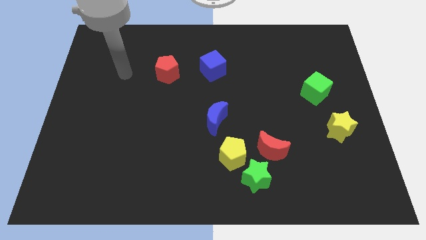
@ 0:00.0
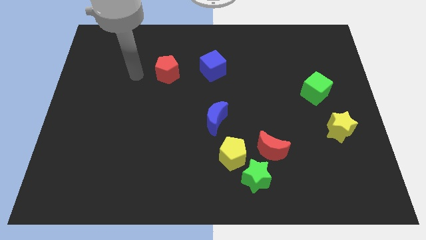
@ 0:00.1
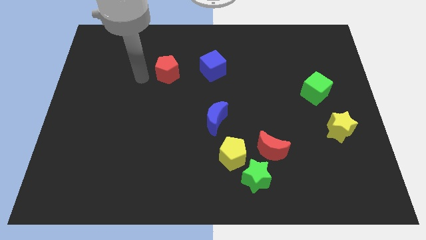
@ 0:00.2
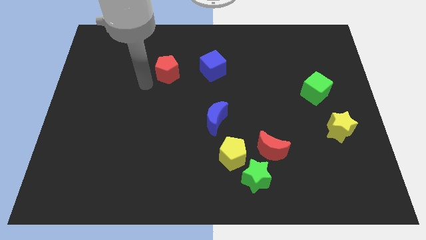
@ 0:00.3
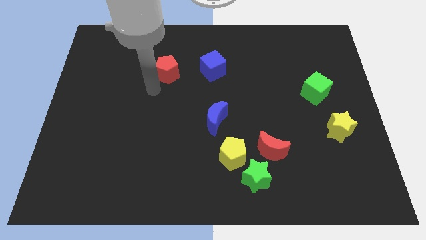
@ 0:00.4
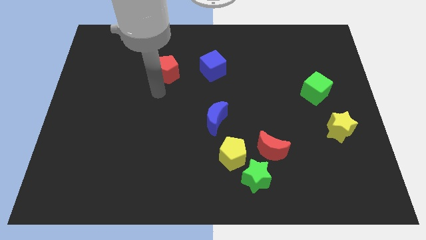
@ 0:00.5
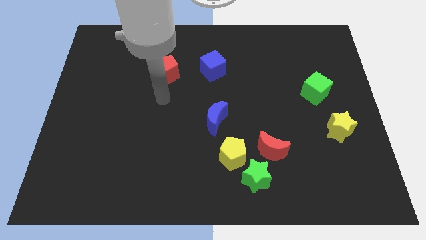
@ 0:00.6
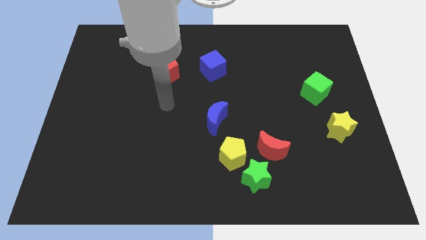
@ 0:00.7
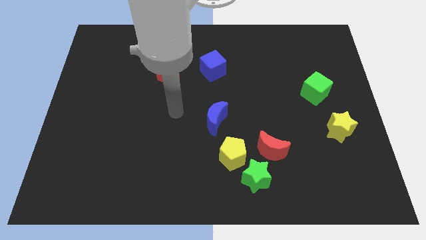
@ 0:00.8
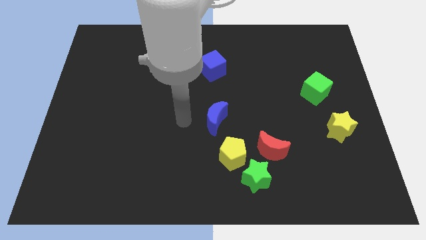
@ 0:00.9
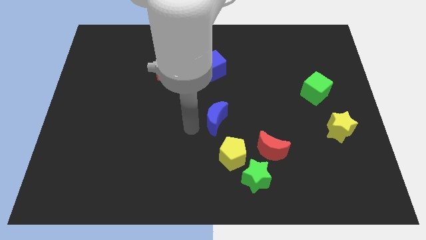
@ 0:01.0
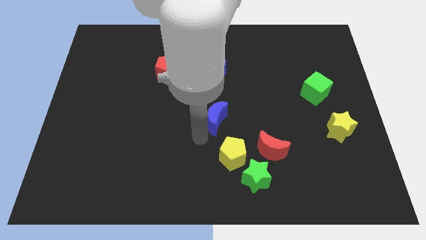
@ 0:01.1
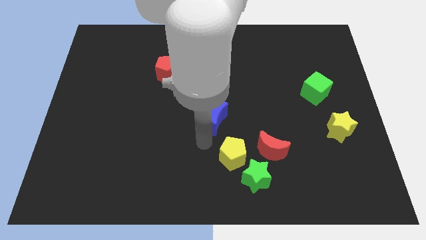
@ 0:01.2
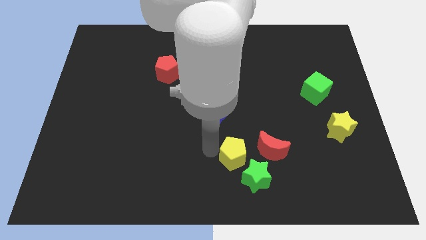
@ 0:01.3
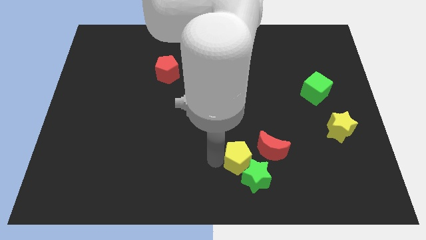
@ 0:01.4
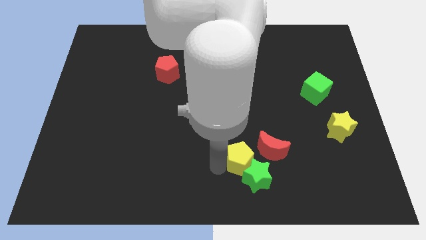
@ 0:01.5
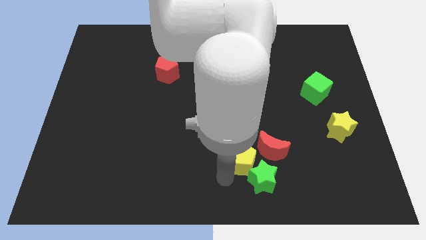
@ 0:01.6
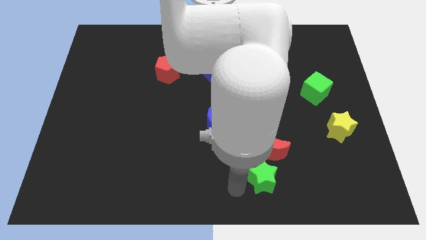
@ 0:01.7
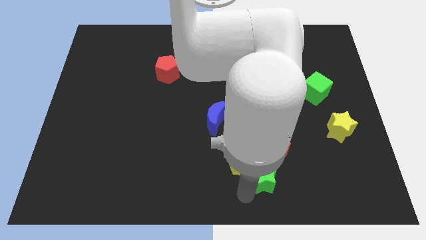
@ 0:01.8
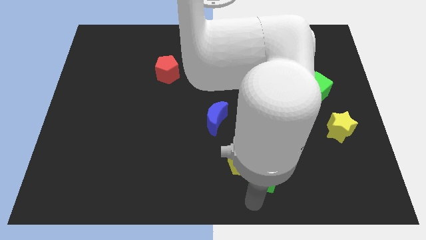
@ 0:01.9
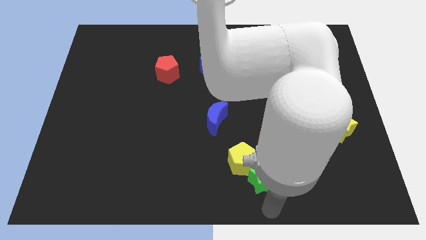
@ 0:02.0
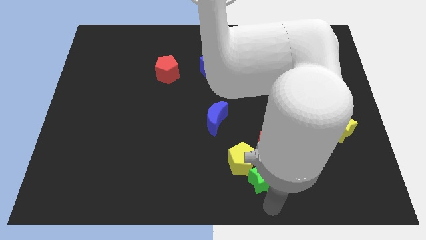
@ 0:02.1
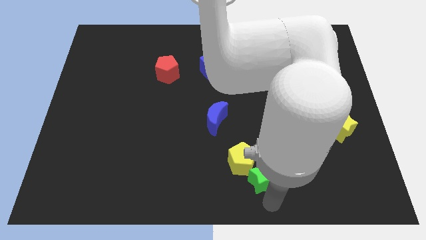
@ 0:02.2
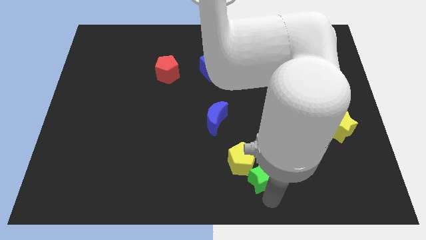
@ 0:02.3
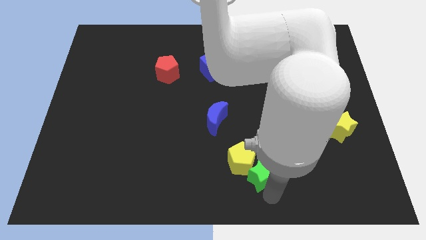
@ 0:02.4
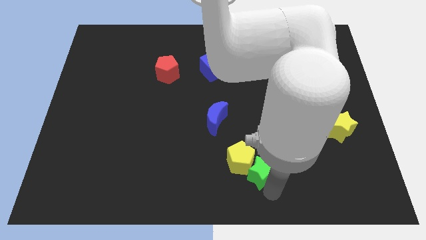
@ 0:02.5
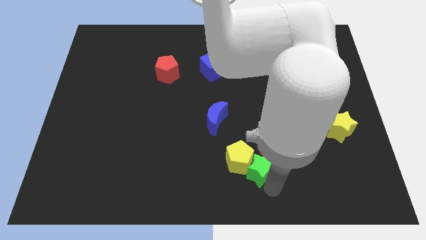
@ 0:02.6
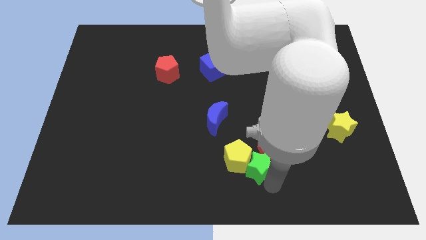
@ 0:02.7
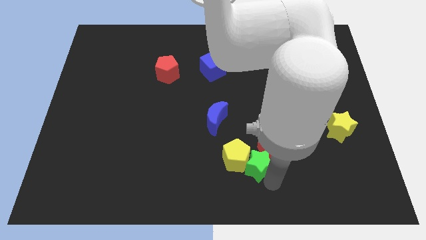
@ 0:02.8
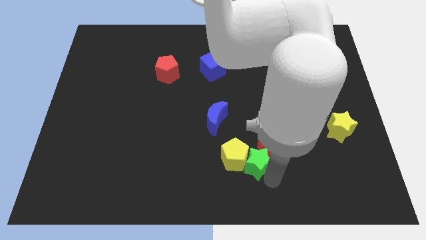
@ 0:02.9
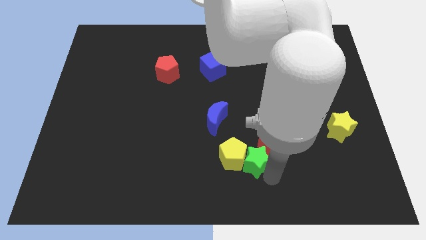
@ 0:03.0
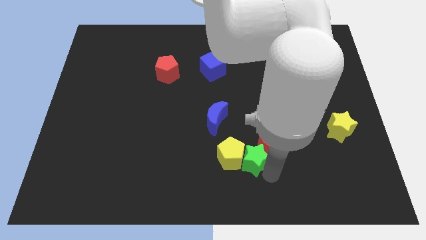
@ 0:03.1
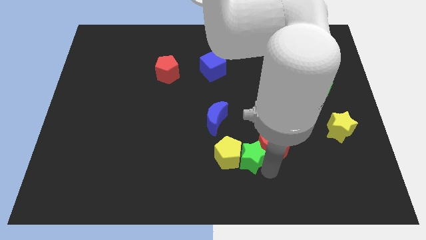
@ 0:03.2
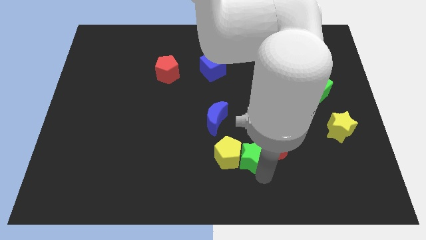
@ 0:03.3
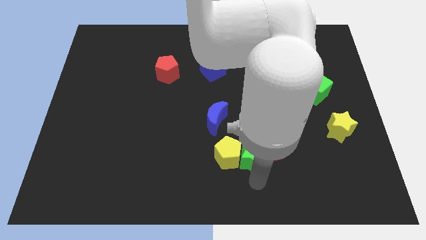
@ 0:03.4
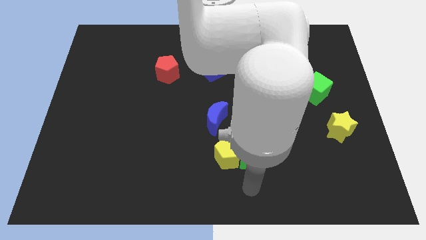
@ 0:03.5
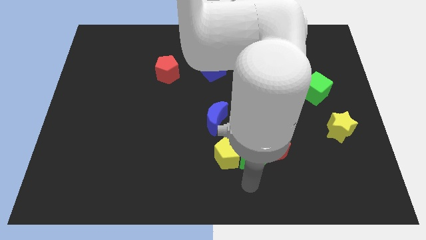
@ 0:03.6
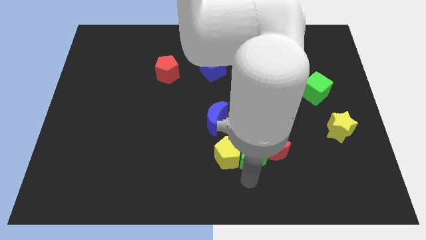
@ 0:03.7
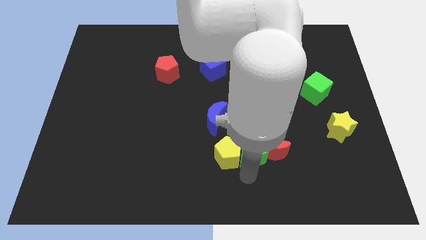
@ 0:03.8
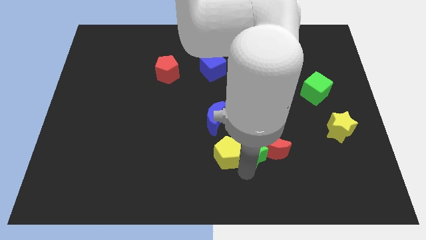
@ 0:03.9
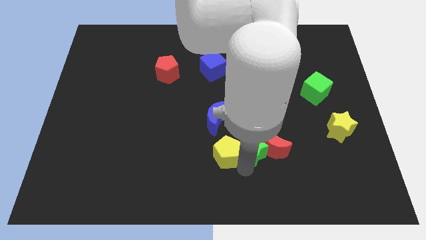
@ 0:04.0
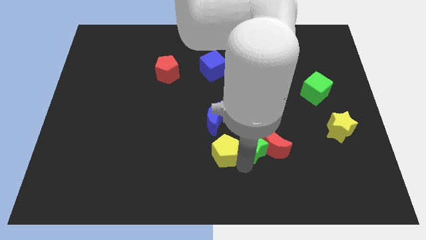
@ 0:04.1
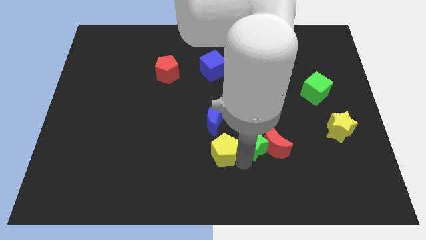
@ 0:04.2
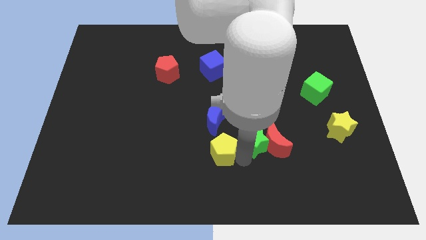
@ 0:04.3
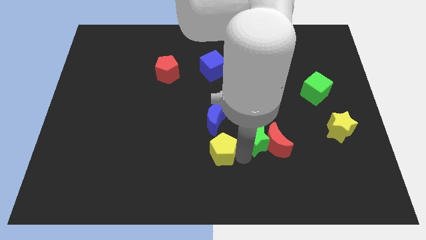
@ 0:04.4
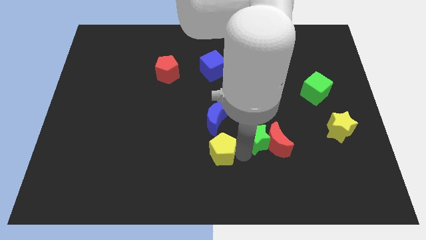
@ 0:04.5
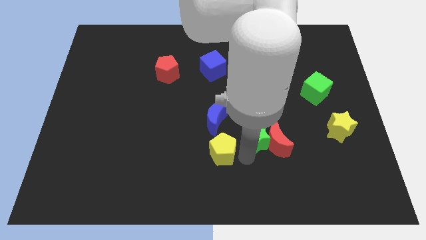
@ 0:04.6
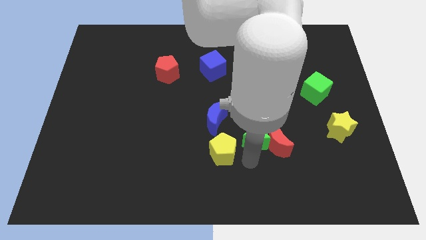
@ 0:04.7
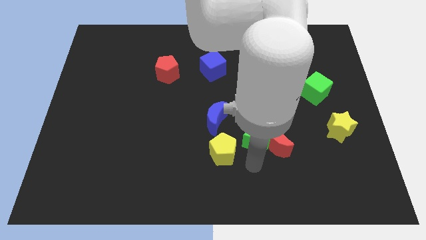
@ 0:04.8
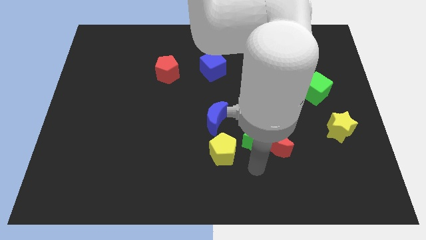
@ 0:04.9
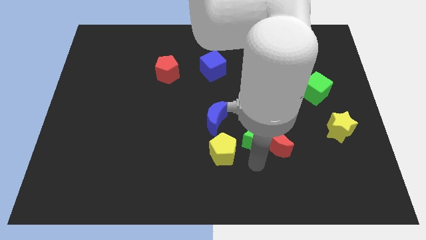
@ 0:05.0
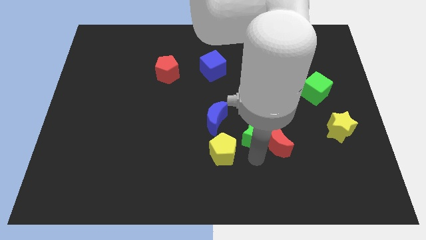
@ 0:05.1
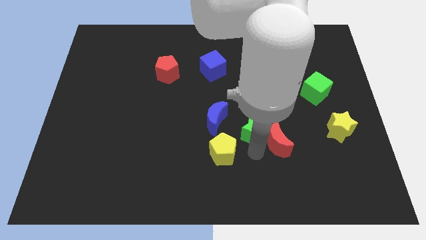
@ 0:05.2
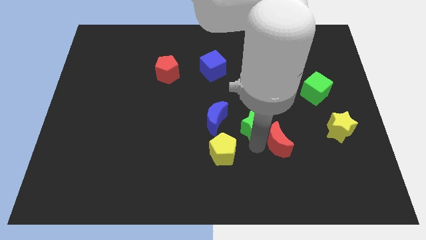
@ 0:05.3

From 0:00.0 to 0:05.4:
put the green star to the middle

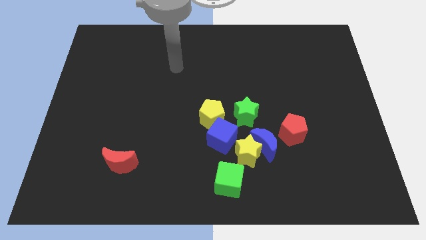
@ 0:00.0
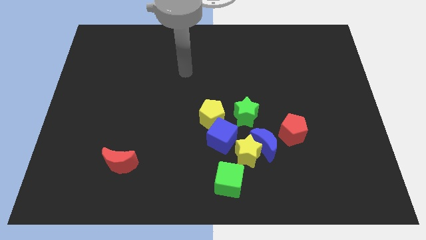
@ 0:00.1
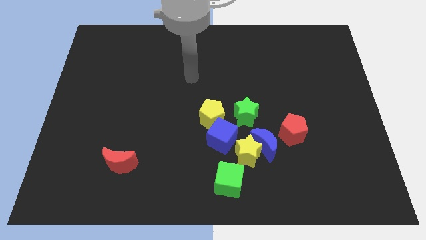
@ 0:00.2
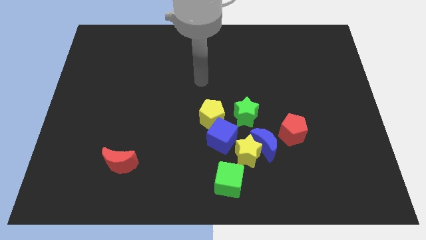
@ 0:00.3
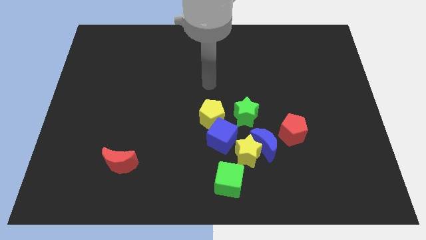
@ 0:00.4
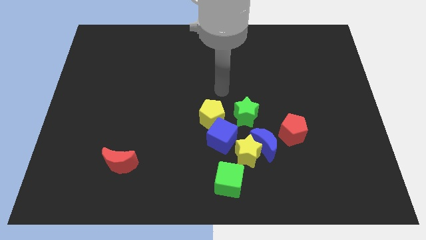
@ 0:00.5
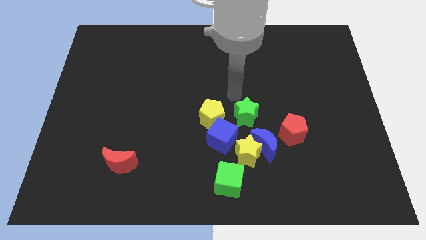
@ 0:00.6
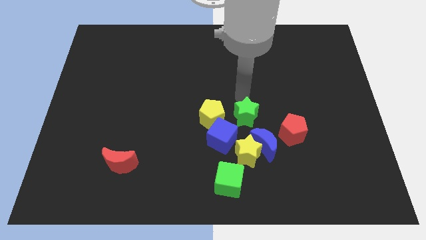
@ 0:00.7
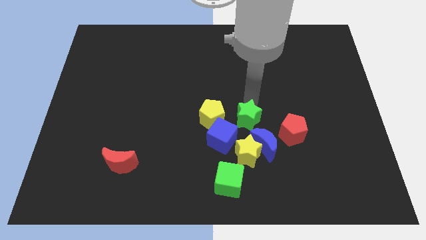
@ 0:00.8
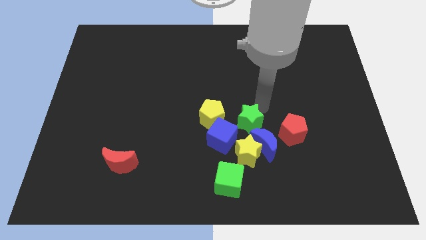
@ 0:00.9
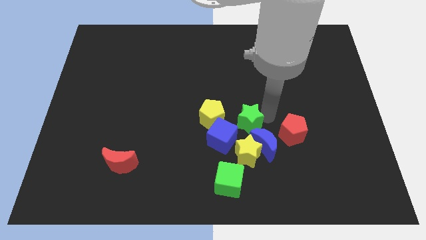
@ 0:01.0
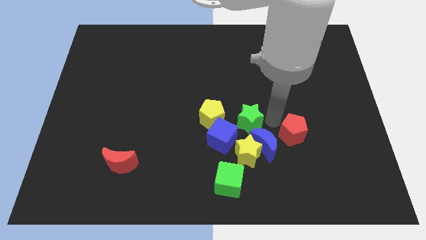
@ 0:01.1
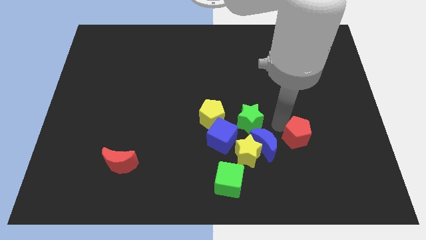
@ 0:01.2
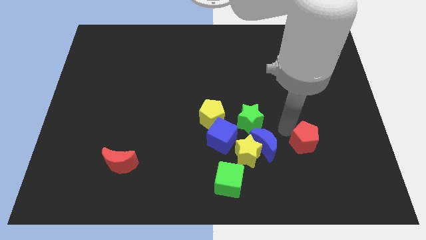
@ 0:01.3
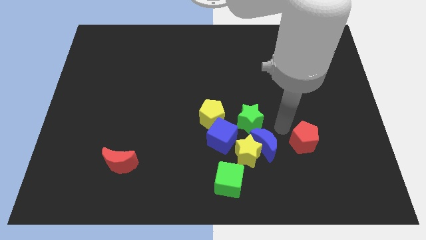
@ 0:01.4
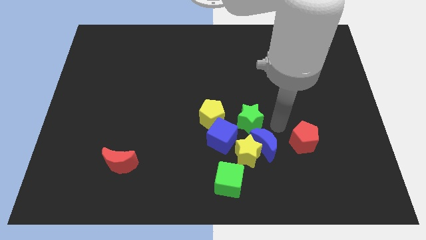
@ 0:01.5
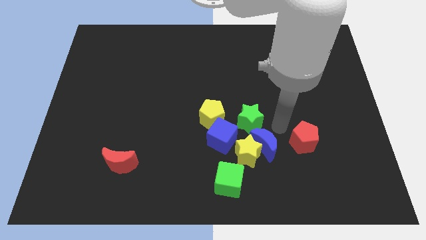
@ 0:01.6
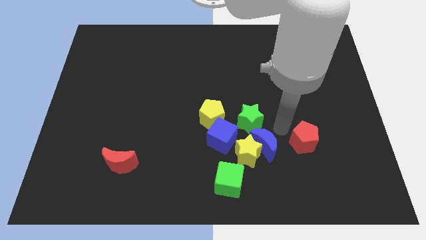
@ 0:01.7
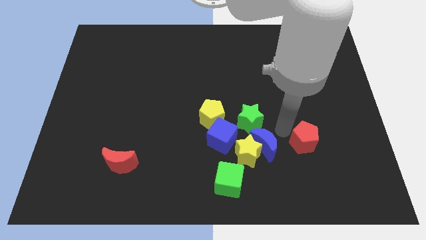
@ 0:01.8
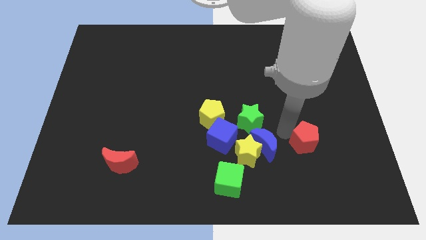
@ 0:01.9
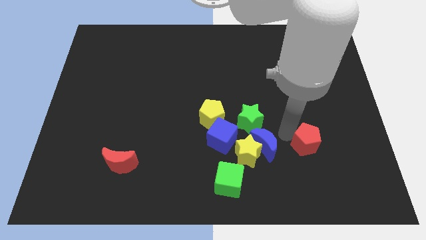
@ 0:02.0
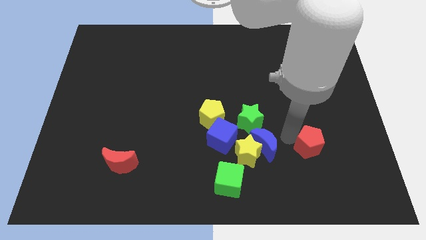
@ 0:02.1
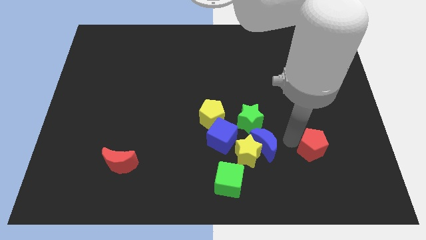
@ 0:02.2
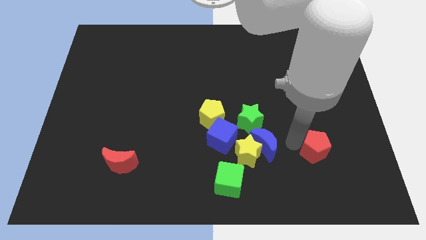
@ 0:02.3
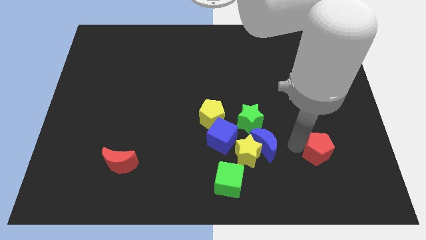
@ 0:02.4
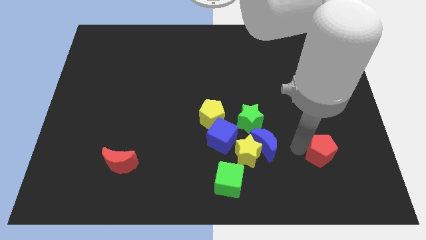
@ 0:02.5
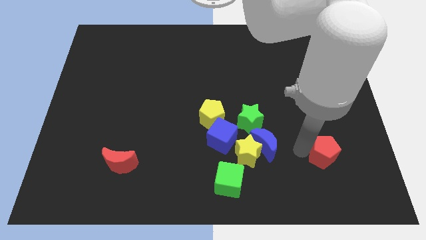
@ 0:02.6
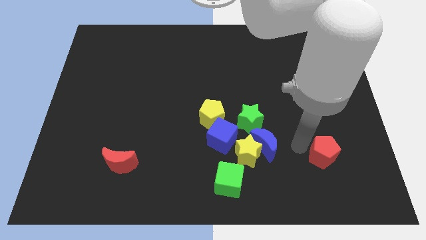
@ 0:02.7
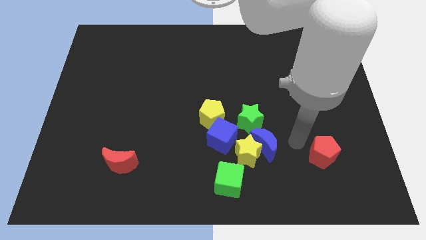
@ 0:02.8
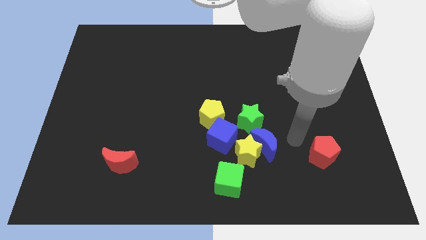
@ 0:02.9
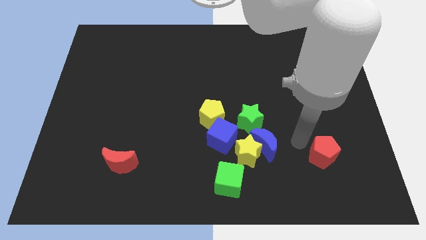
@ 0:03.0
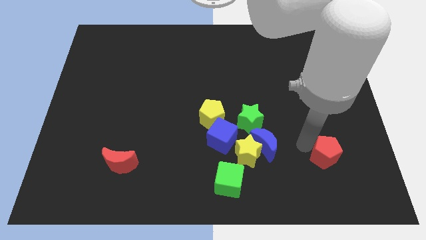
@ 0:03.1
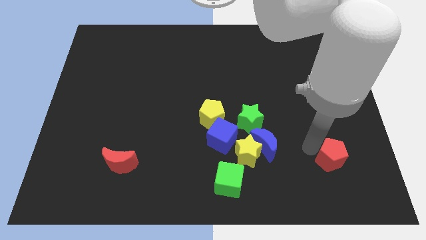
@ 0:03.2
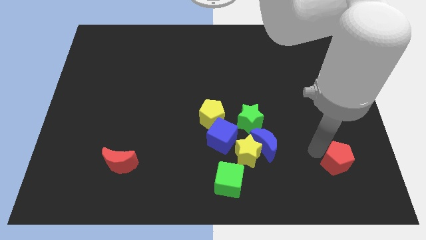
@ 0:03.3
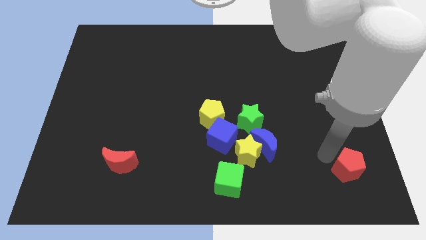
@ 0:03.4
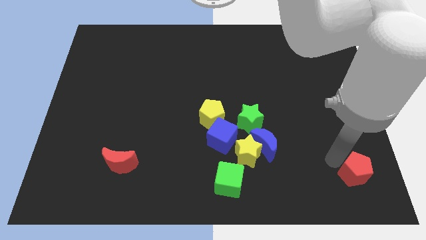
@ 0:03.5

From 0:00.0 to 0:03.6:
move the red pentagon to the bottom right corner
